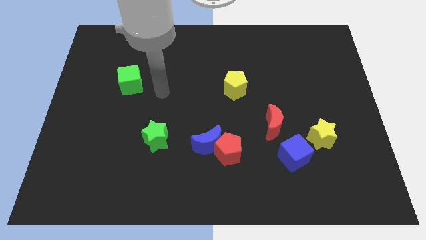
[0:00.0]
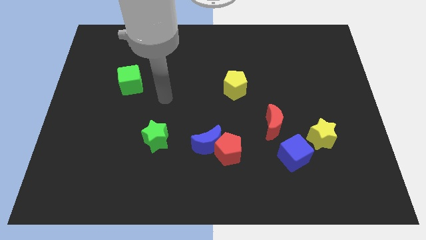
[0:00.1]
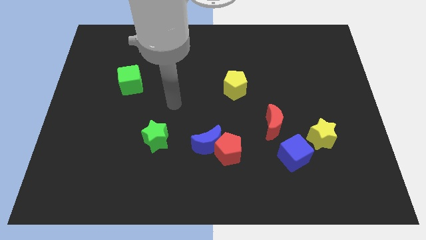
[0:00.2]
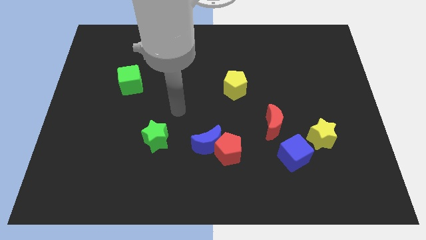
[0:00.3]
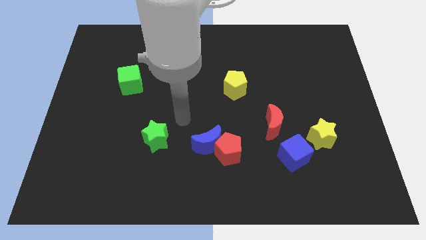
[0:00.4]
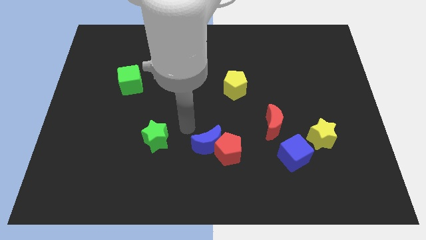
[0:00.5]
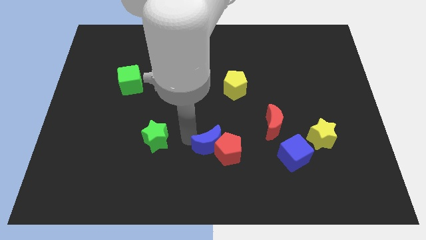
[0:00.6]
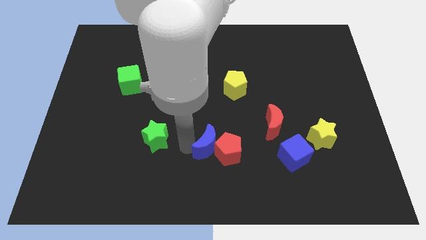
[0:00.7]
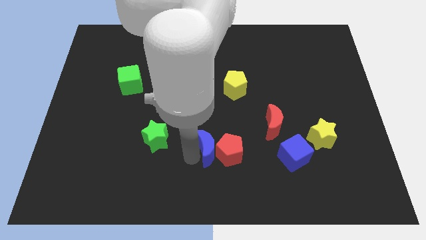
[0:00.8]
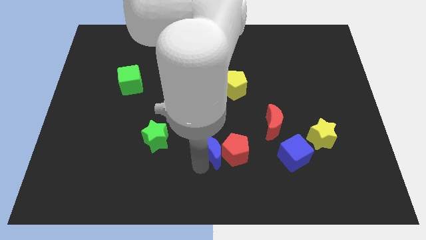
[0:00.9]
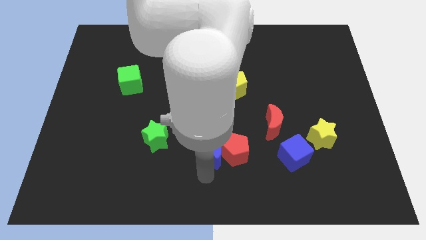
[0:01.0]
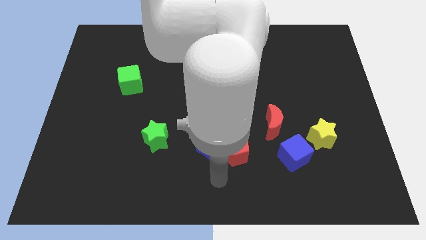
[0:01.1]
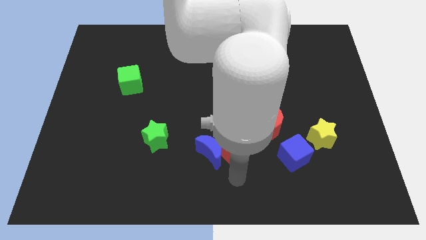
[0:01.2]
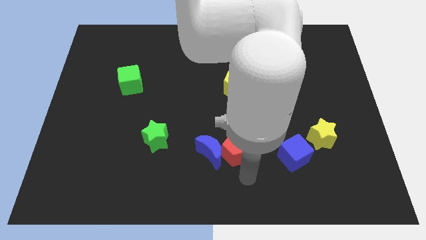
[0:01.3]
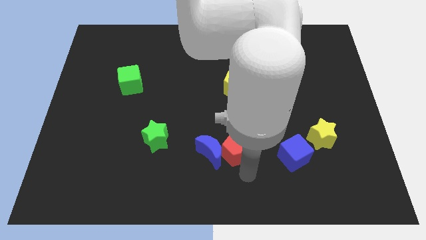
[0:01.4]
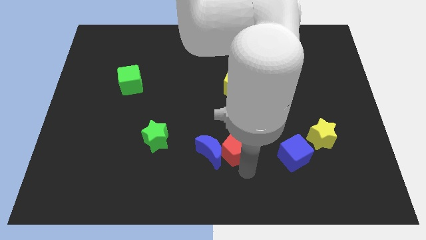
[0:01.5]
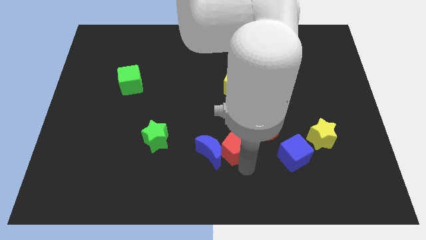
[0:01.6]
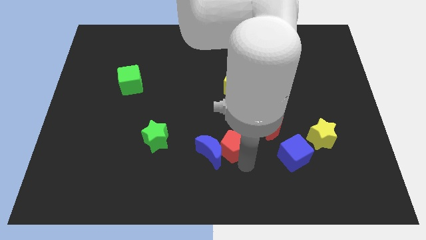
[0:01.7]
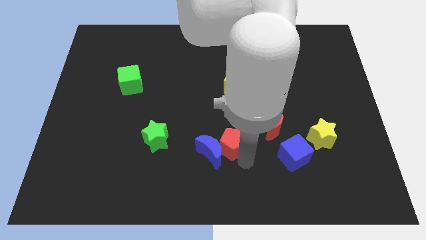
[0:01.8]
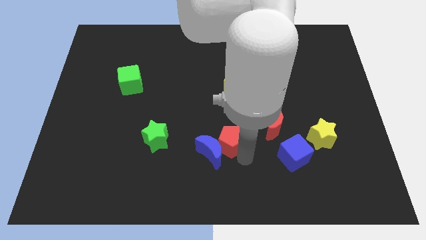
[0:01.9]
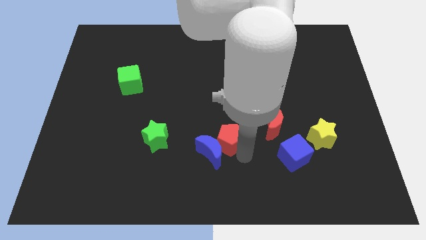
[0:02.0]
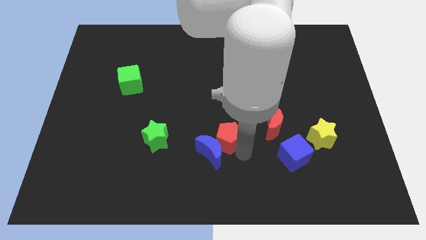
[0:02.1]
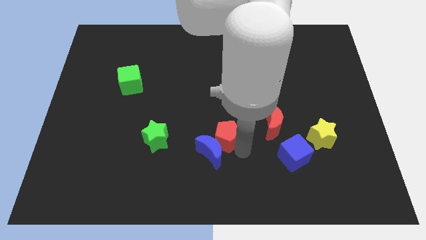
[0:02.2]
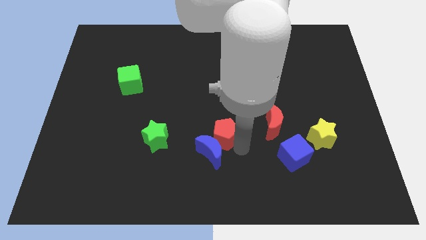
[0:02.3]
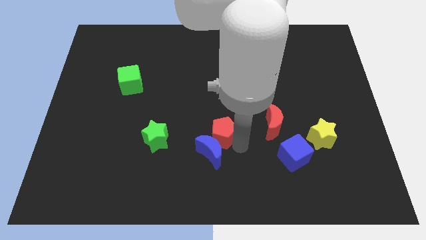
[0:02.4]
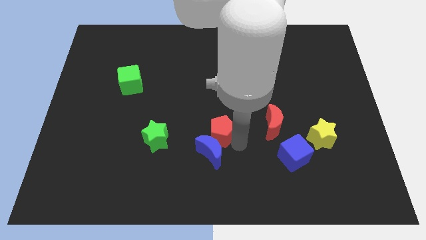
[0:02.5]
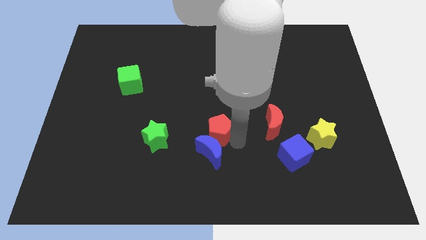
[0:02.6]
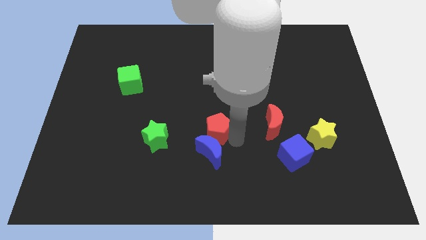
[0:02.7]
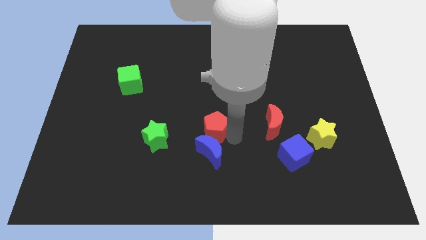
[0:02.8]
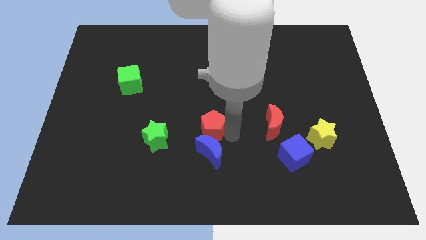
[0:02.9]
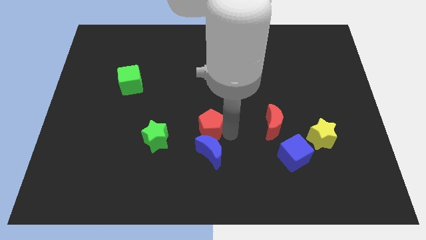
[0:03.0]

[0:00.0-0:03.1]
slightly push the red pentagon up and then to the left

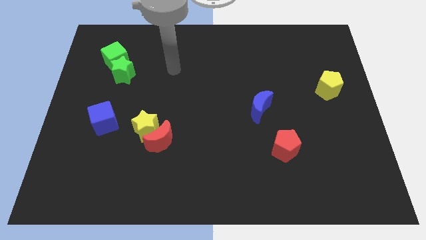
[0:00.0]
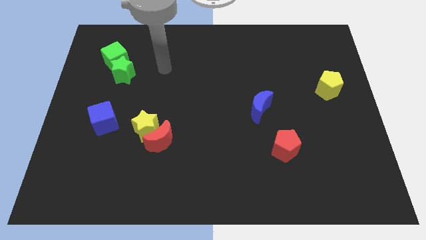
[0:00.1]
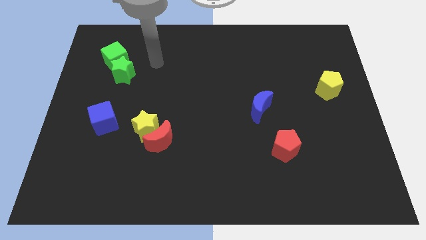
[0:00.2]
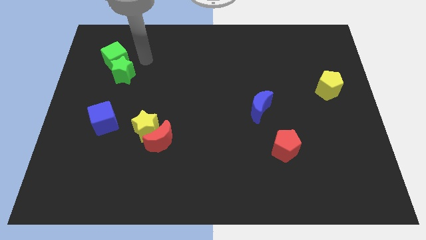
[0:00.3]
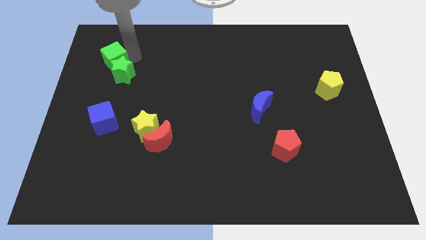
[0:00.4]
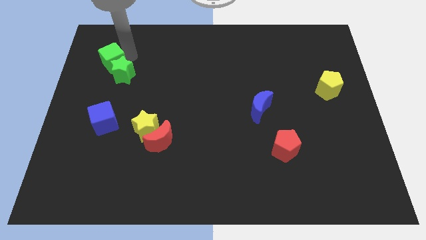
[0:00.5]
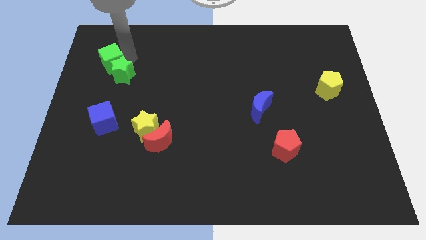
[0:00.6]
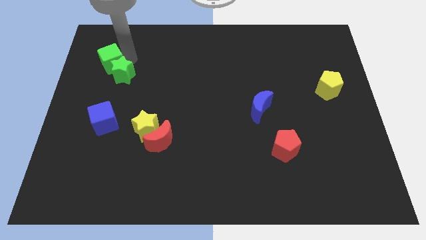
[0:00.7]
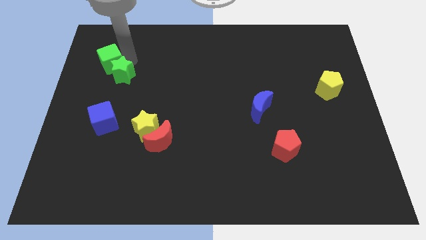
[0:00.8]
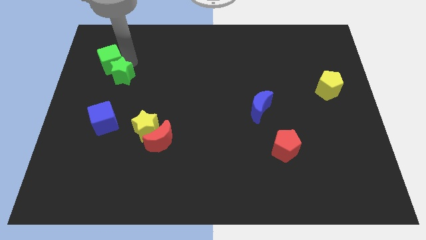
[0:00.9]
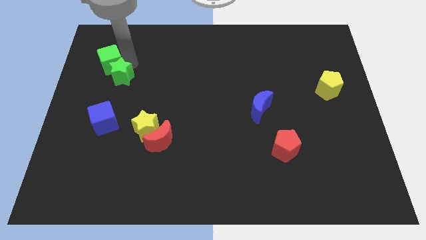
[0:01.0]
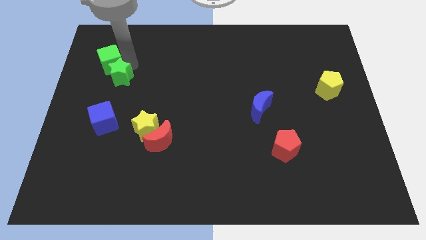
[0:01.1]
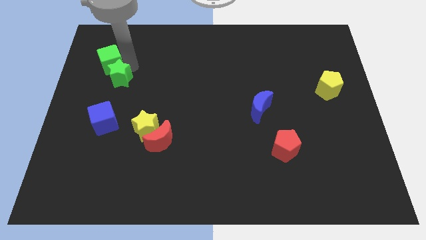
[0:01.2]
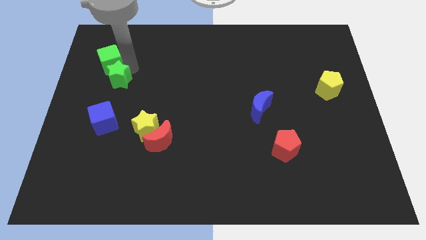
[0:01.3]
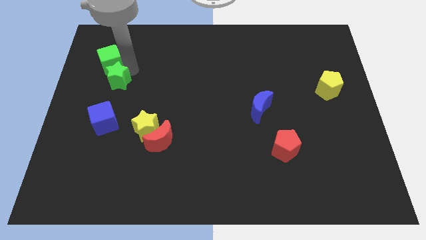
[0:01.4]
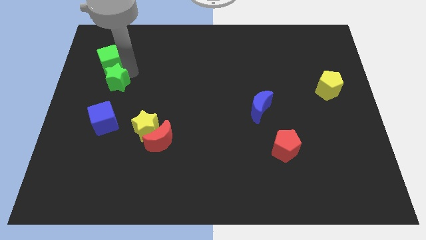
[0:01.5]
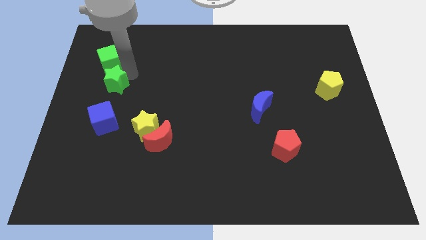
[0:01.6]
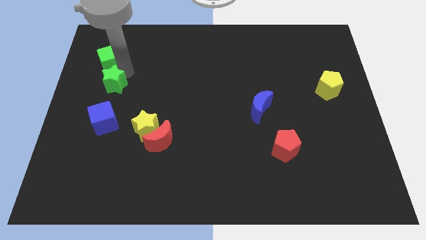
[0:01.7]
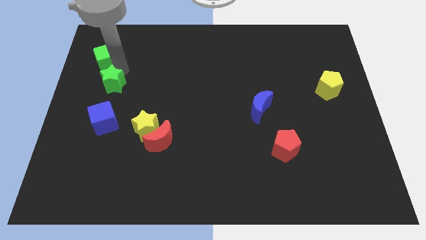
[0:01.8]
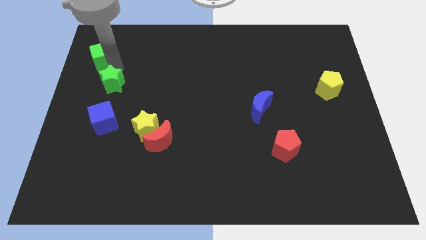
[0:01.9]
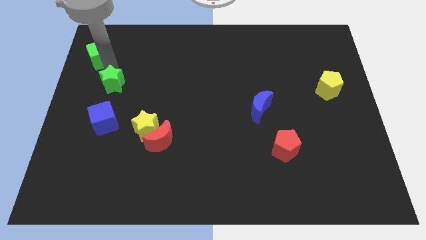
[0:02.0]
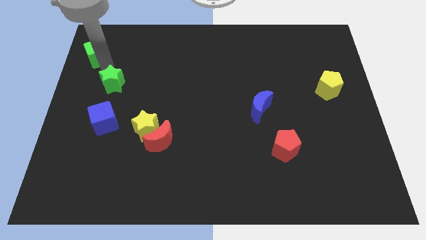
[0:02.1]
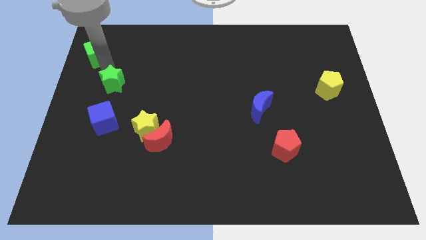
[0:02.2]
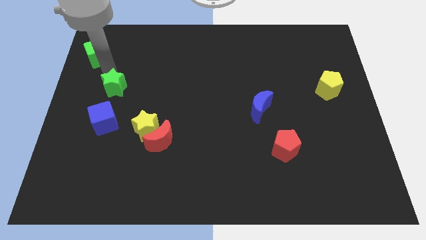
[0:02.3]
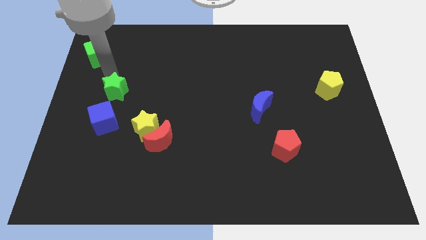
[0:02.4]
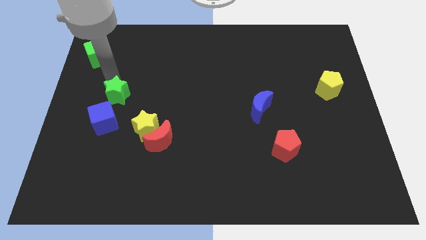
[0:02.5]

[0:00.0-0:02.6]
push the green star a bit down

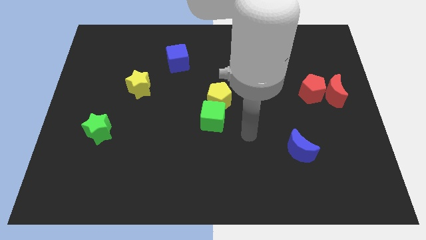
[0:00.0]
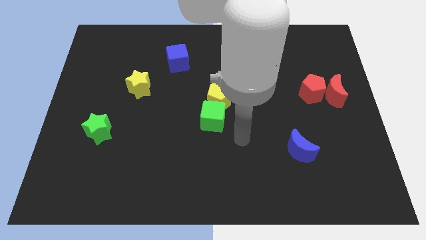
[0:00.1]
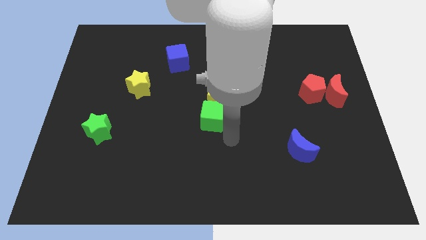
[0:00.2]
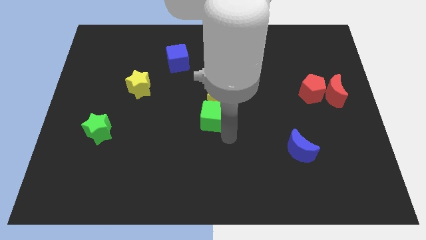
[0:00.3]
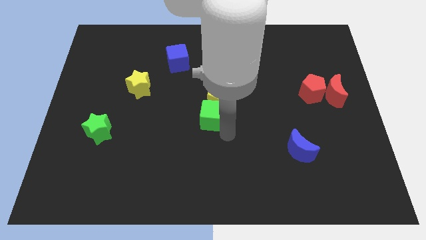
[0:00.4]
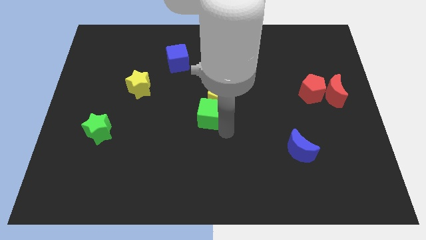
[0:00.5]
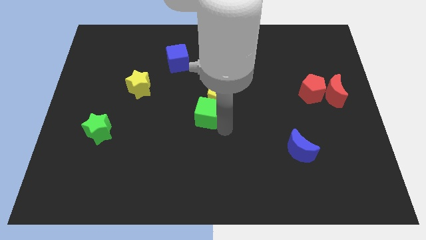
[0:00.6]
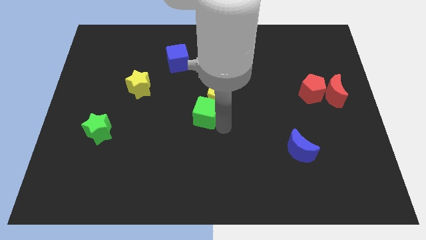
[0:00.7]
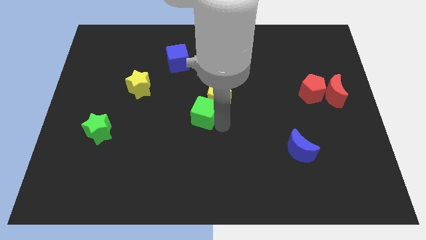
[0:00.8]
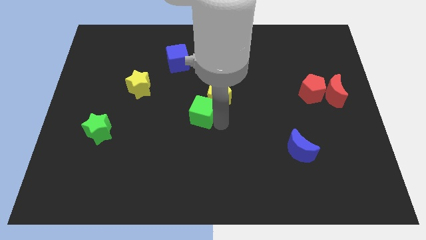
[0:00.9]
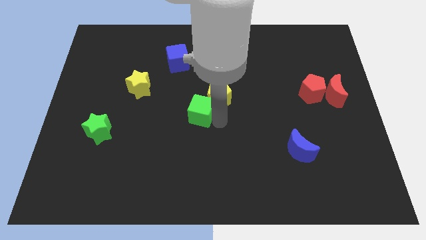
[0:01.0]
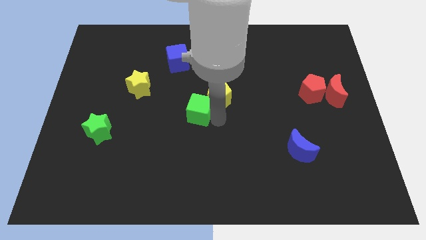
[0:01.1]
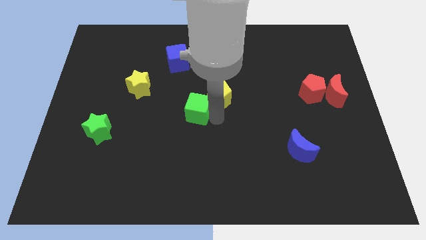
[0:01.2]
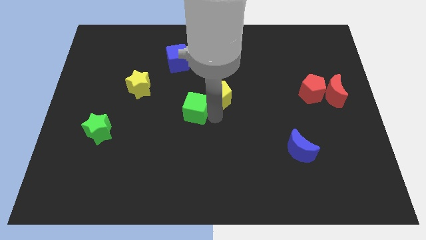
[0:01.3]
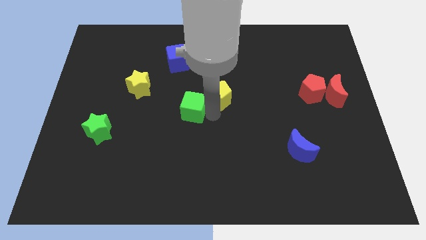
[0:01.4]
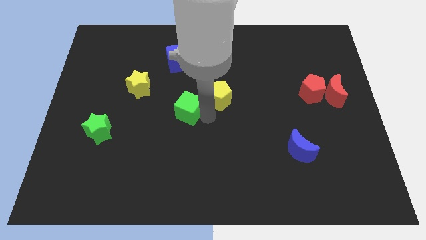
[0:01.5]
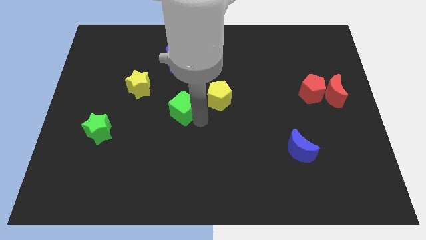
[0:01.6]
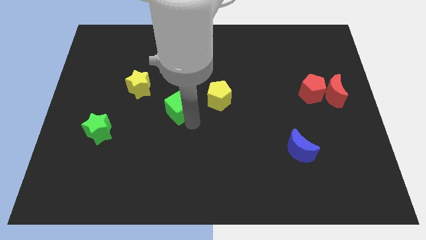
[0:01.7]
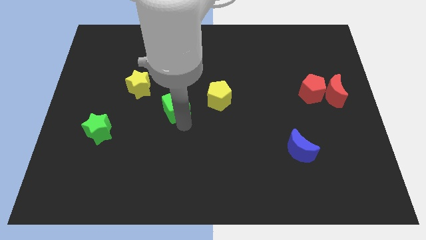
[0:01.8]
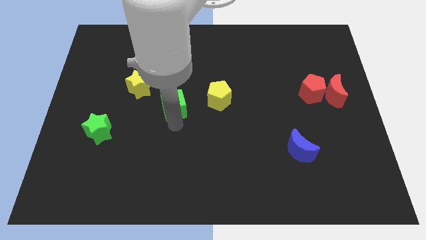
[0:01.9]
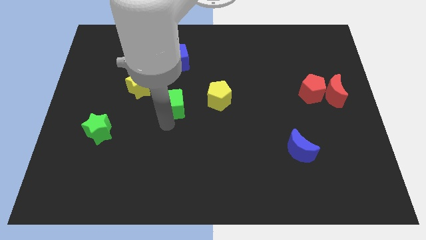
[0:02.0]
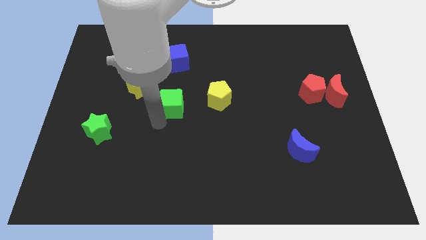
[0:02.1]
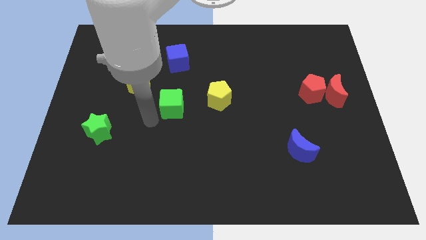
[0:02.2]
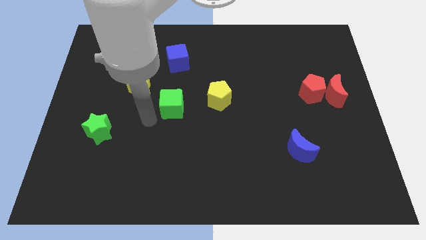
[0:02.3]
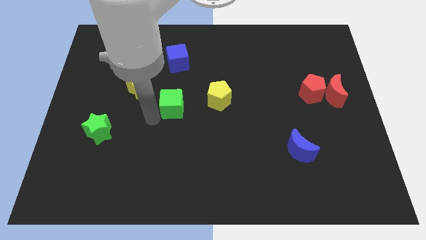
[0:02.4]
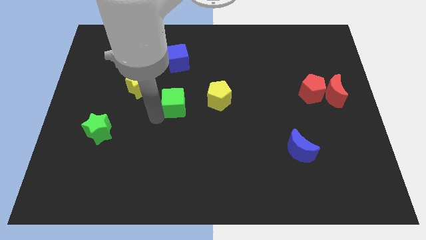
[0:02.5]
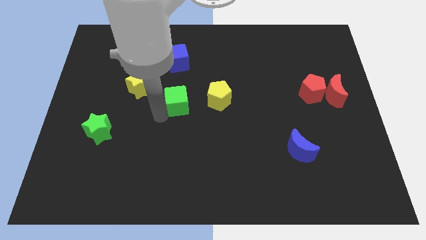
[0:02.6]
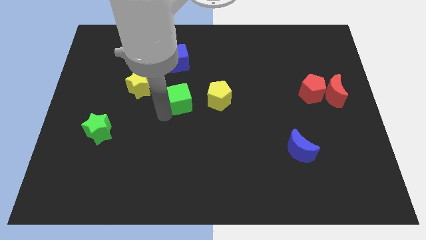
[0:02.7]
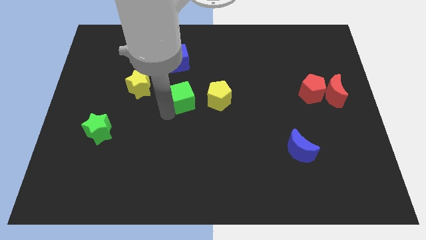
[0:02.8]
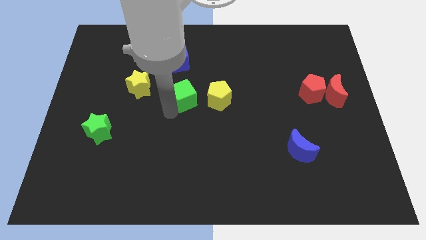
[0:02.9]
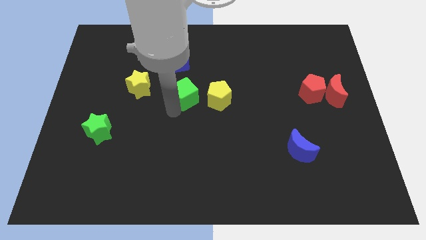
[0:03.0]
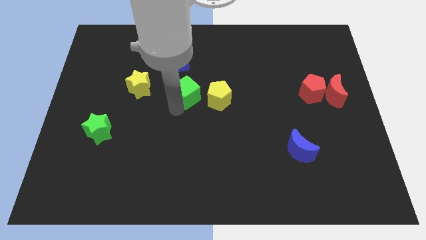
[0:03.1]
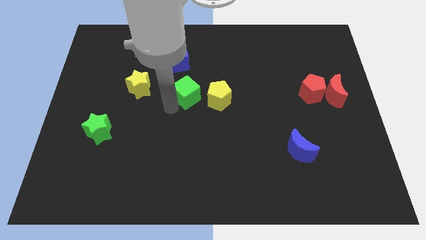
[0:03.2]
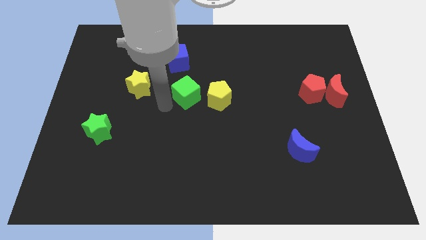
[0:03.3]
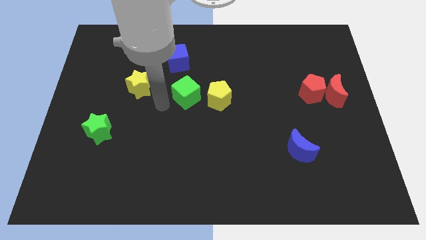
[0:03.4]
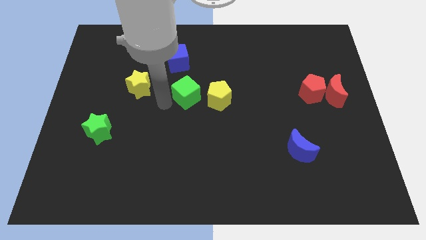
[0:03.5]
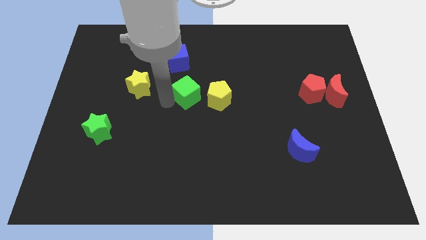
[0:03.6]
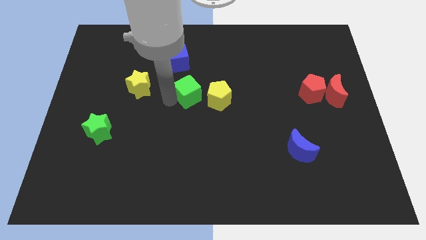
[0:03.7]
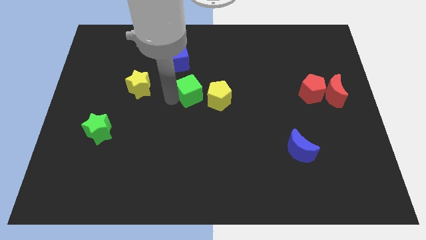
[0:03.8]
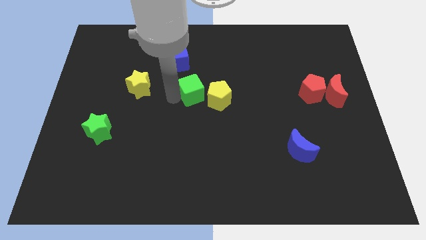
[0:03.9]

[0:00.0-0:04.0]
slide the green cube a bit upwards
